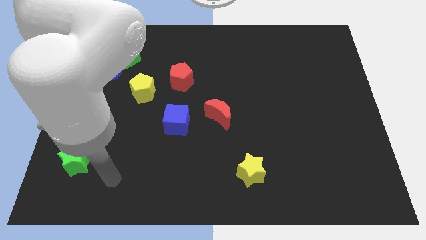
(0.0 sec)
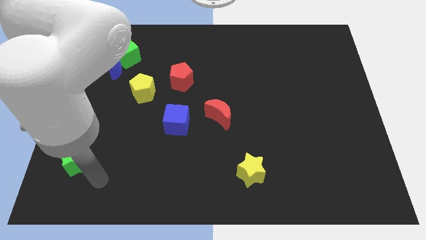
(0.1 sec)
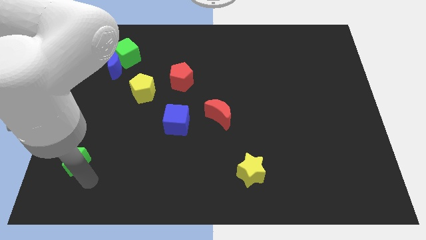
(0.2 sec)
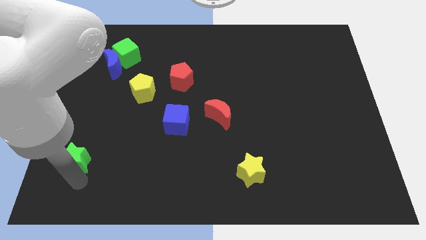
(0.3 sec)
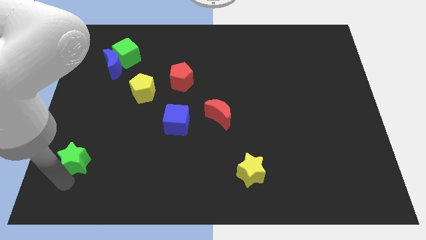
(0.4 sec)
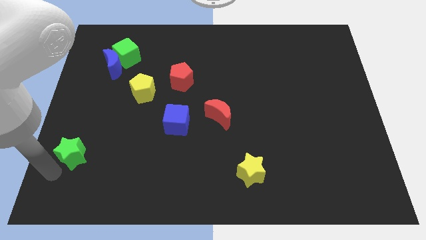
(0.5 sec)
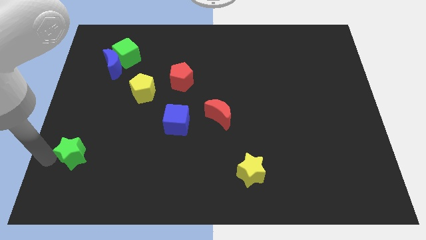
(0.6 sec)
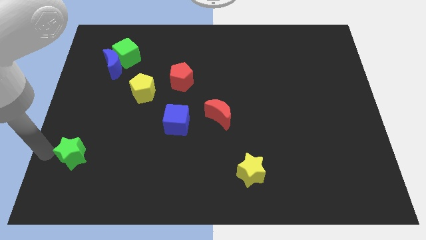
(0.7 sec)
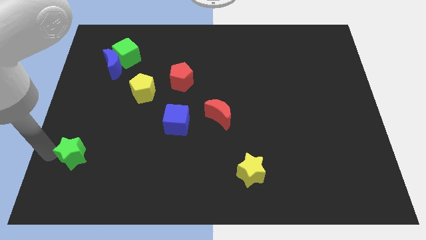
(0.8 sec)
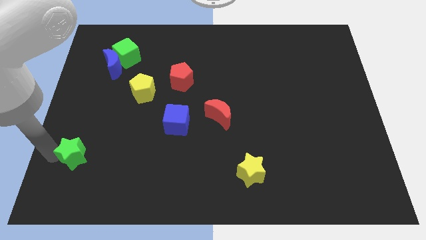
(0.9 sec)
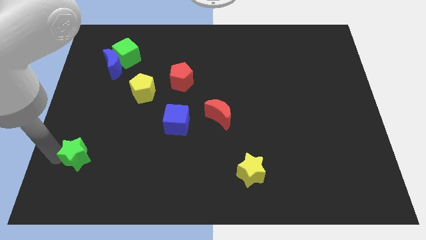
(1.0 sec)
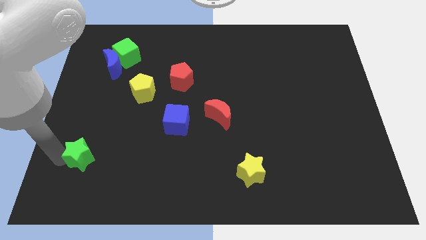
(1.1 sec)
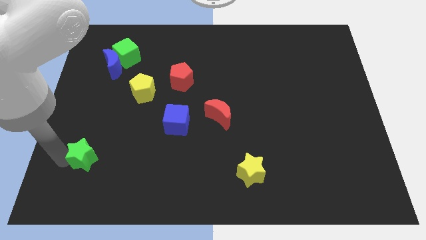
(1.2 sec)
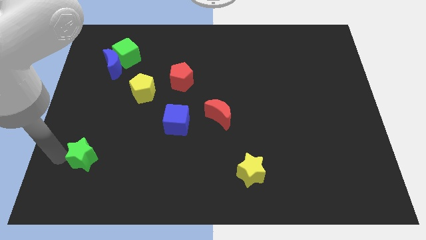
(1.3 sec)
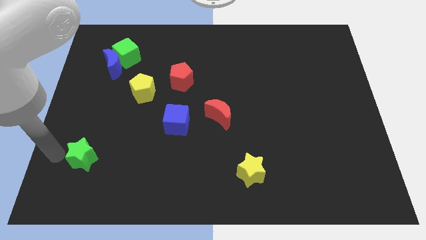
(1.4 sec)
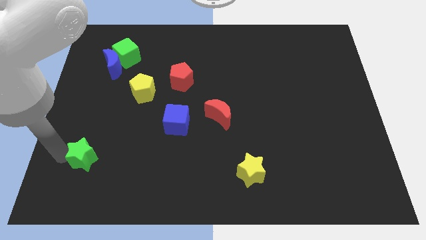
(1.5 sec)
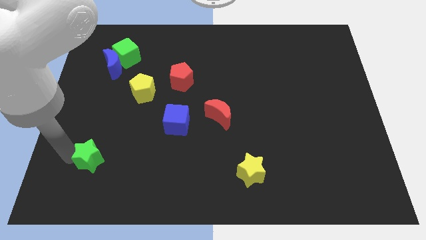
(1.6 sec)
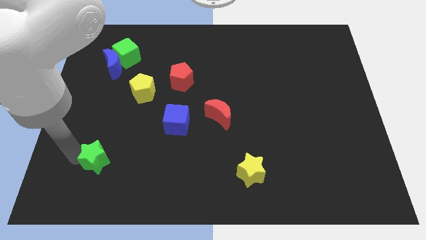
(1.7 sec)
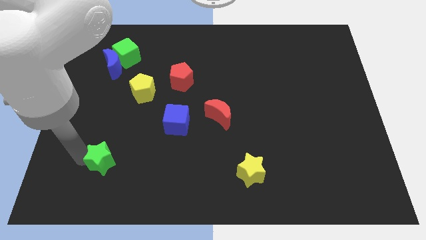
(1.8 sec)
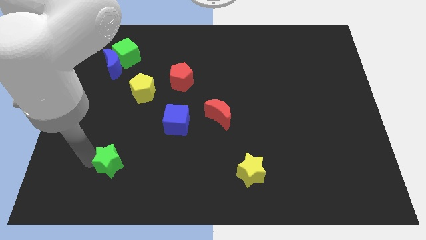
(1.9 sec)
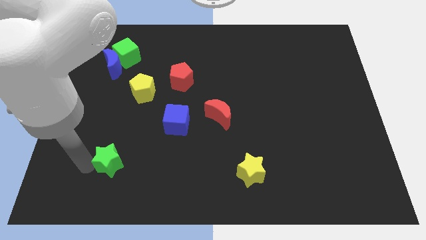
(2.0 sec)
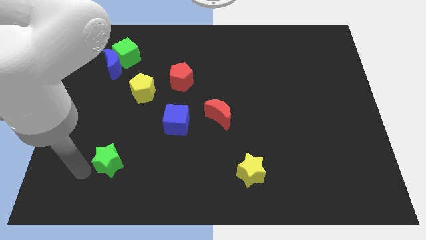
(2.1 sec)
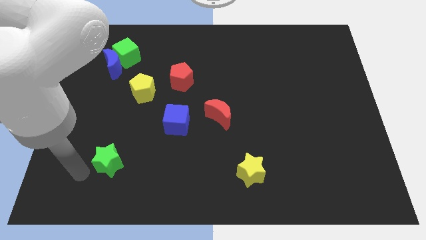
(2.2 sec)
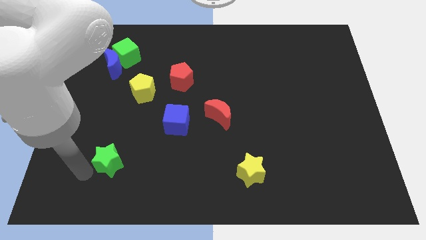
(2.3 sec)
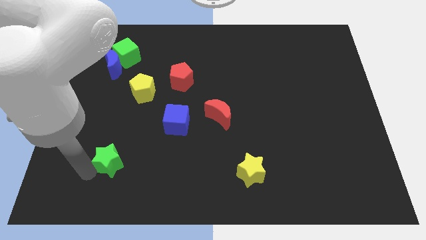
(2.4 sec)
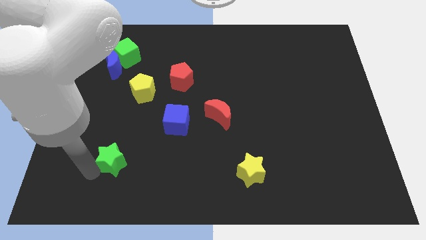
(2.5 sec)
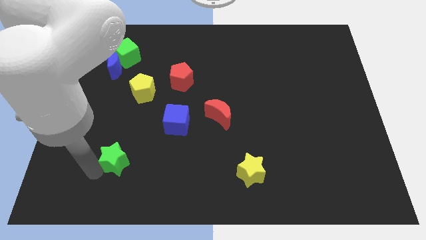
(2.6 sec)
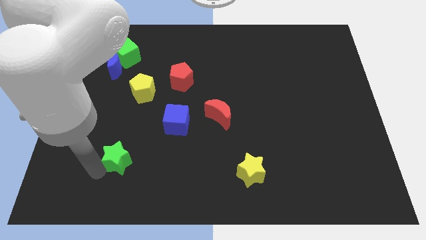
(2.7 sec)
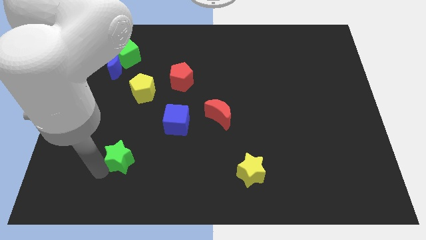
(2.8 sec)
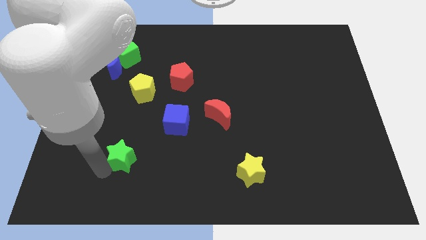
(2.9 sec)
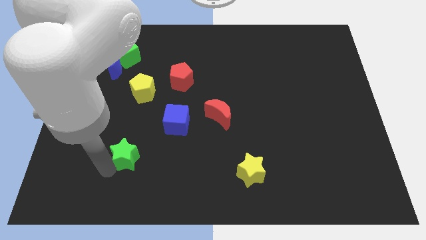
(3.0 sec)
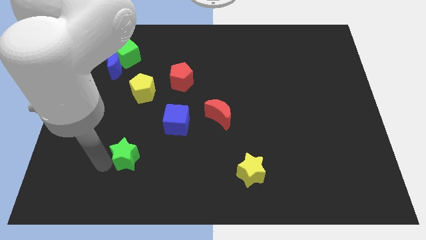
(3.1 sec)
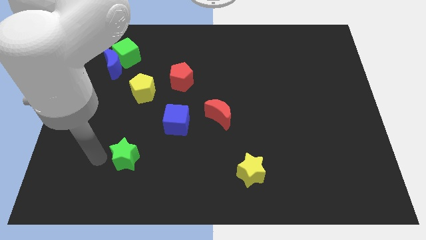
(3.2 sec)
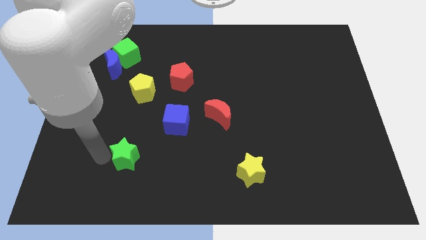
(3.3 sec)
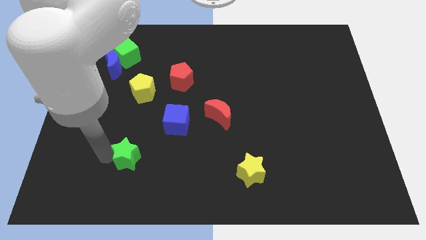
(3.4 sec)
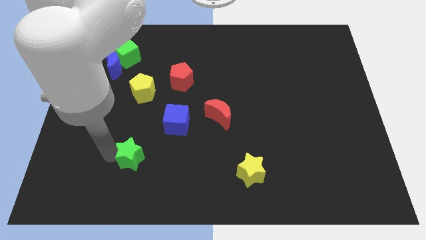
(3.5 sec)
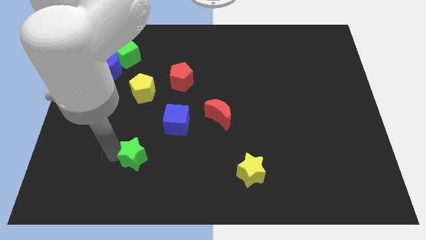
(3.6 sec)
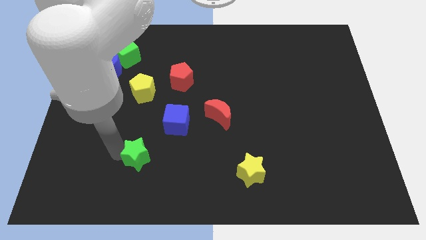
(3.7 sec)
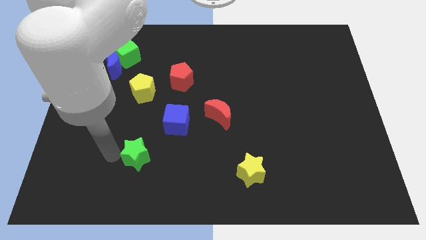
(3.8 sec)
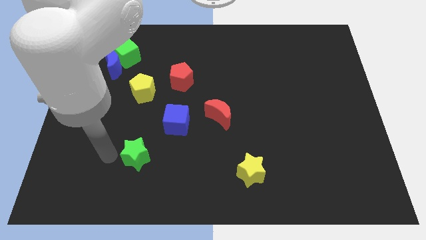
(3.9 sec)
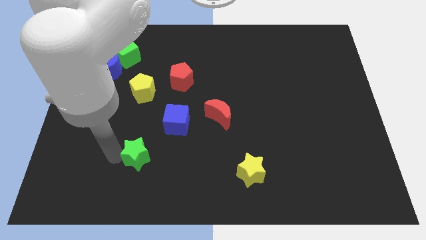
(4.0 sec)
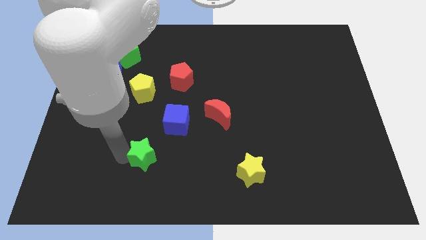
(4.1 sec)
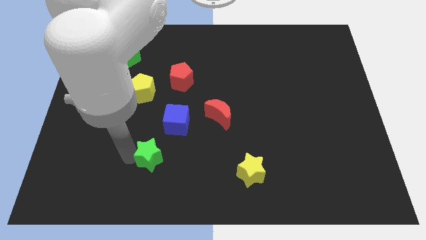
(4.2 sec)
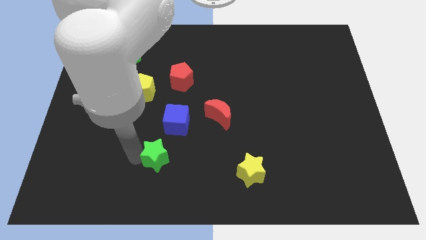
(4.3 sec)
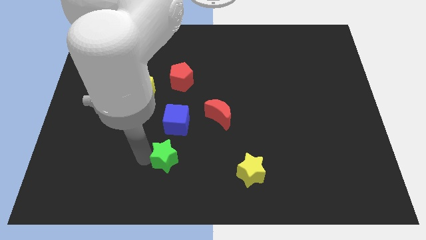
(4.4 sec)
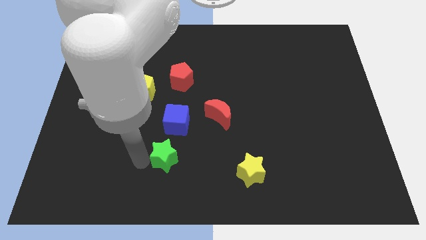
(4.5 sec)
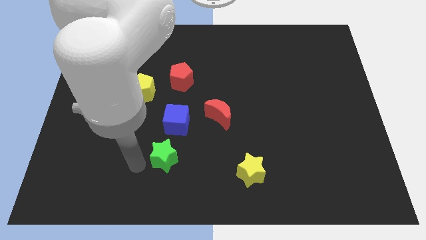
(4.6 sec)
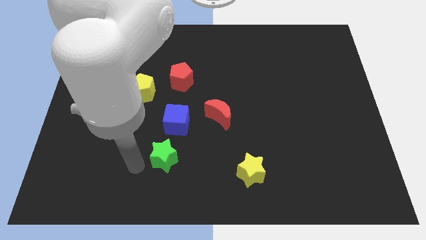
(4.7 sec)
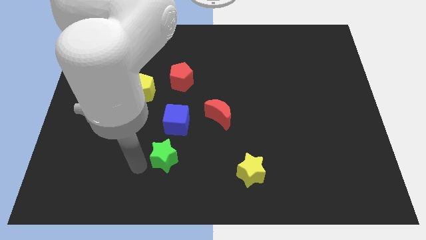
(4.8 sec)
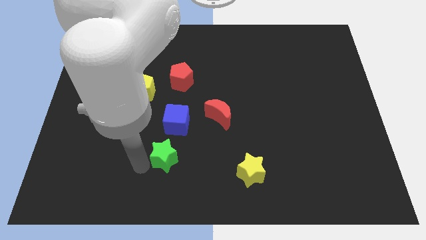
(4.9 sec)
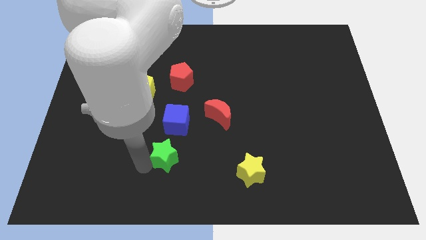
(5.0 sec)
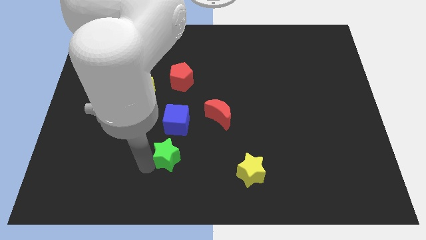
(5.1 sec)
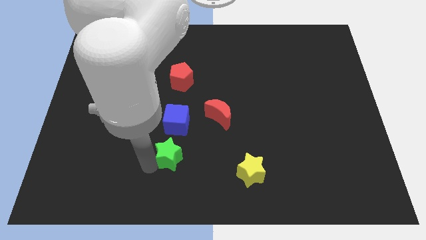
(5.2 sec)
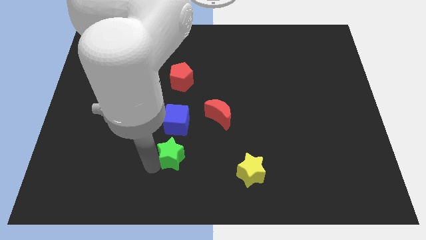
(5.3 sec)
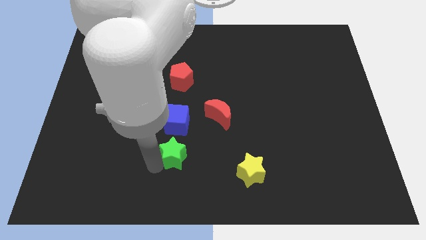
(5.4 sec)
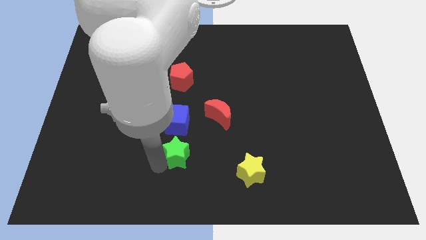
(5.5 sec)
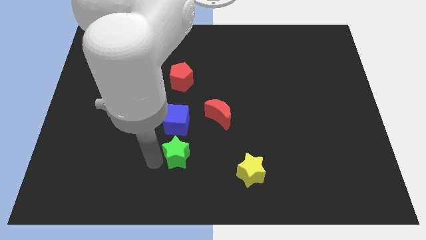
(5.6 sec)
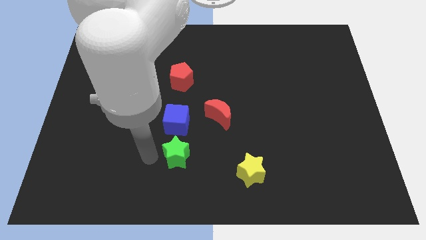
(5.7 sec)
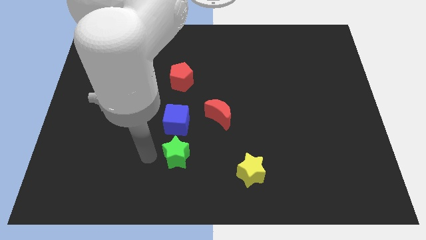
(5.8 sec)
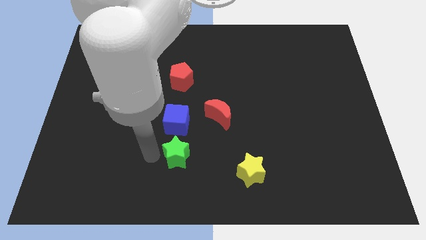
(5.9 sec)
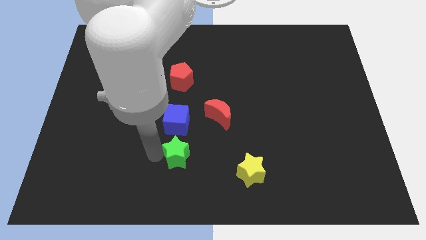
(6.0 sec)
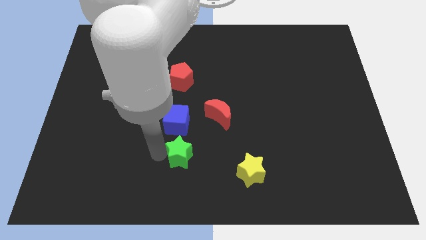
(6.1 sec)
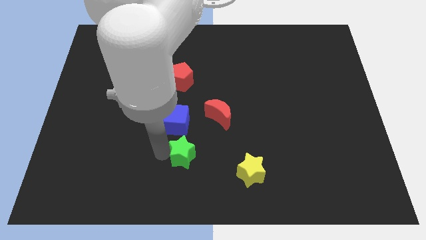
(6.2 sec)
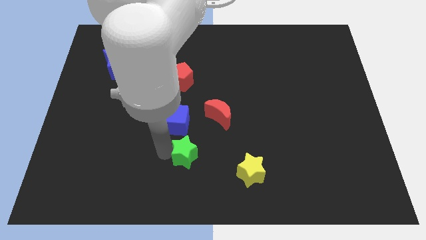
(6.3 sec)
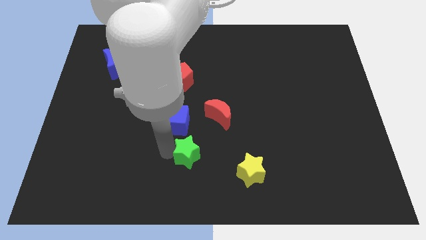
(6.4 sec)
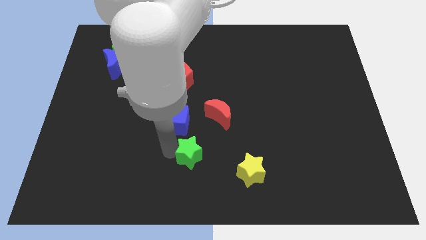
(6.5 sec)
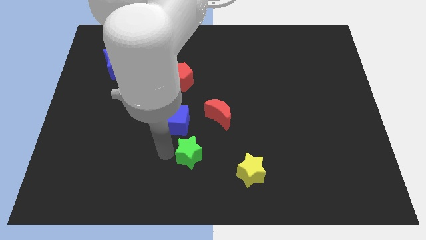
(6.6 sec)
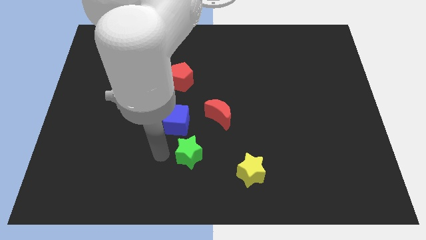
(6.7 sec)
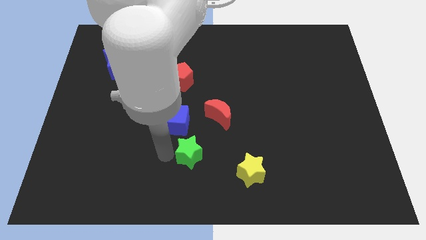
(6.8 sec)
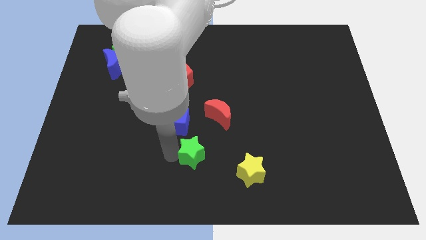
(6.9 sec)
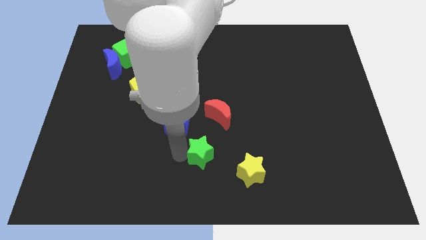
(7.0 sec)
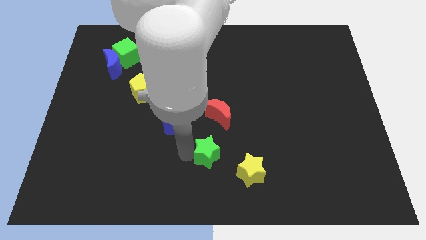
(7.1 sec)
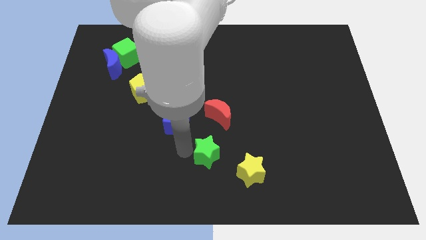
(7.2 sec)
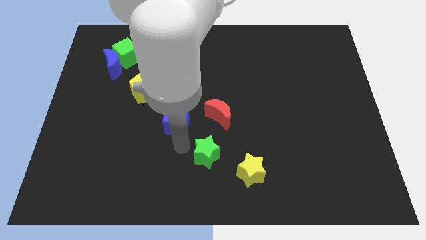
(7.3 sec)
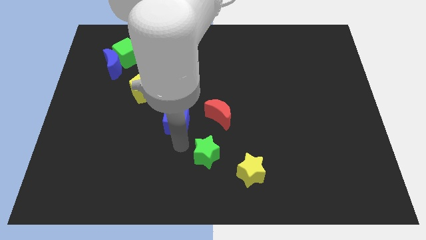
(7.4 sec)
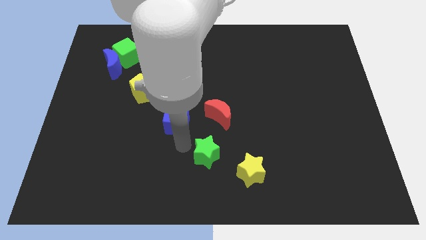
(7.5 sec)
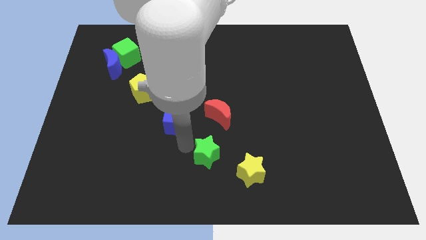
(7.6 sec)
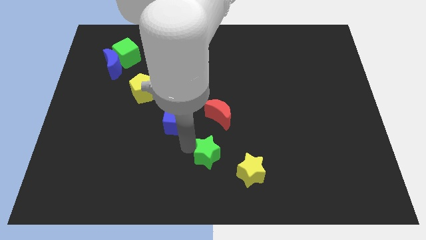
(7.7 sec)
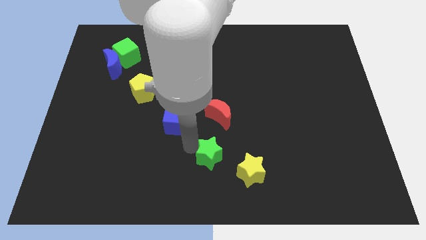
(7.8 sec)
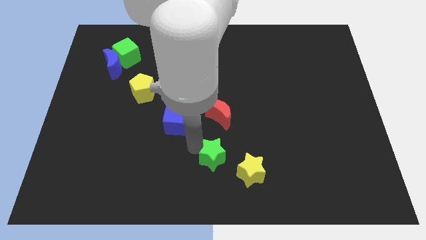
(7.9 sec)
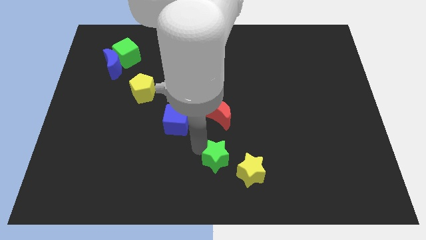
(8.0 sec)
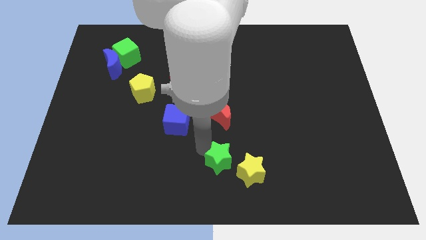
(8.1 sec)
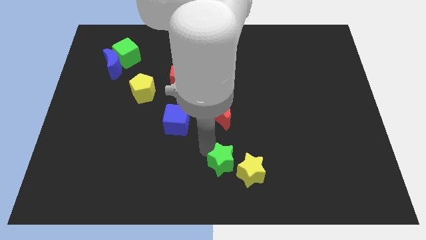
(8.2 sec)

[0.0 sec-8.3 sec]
push the green star next to the yellow star
